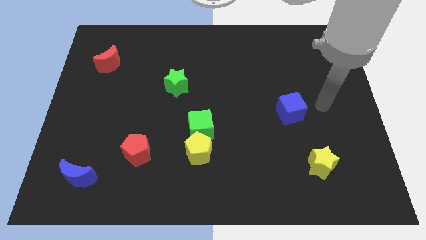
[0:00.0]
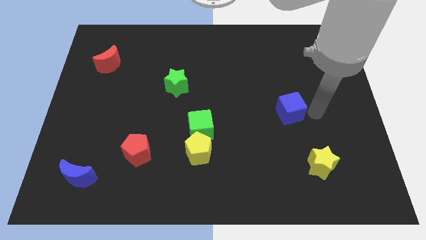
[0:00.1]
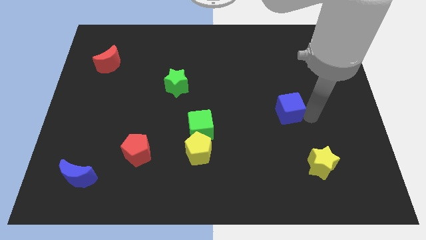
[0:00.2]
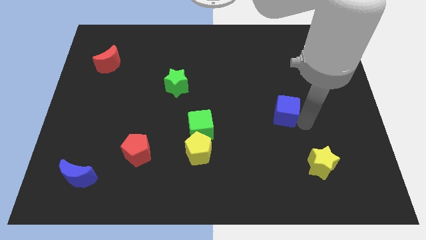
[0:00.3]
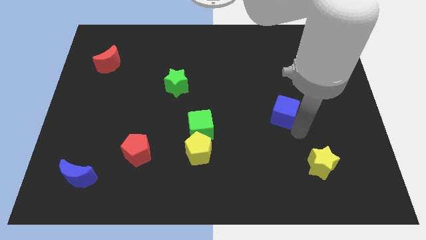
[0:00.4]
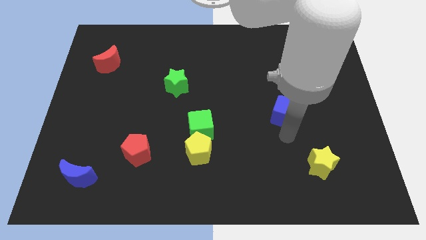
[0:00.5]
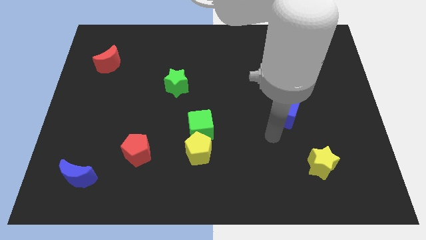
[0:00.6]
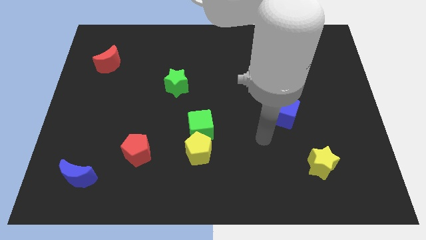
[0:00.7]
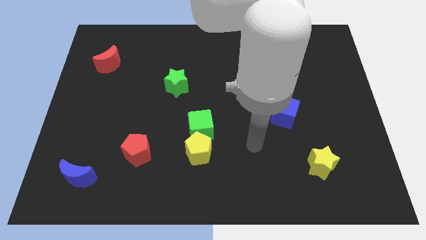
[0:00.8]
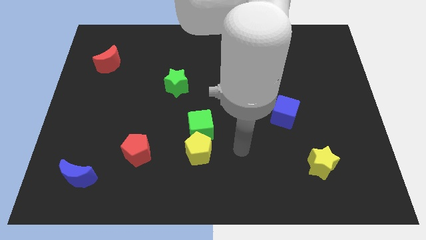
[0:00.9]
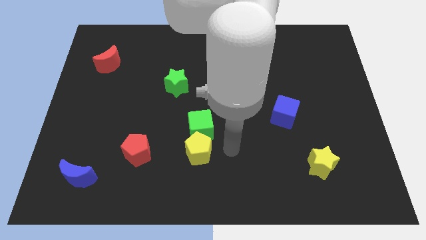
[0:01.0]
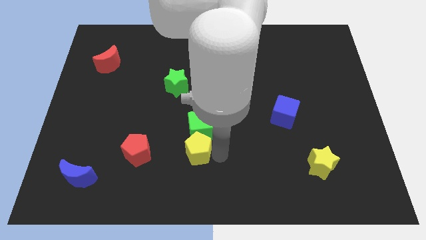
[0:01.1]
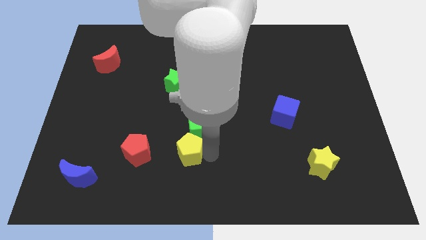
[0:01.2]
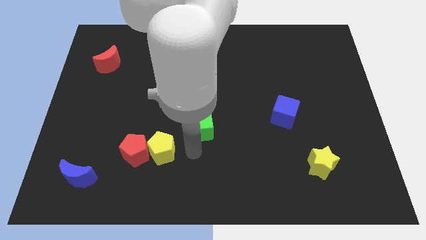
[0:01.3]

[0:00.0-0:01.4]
separate the green cube from the yellow pentagon

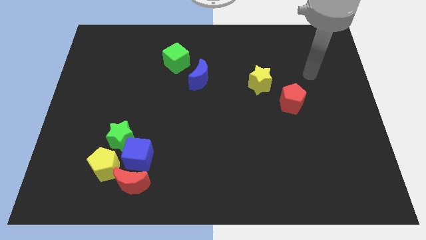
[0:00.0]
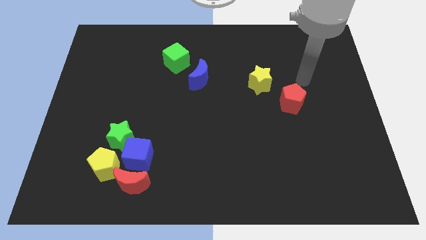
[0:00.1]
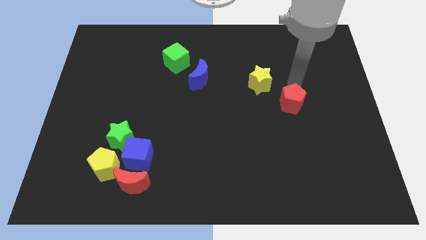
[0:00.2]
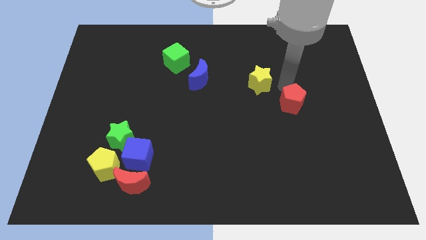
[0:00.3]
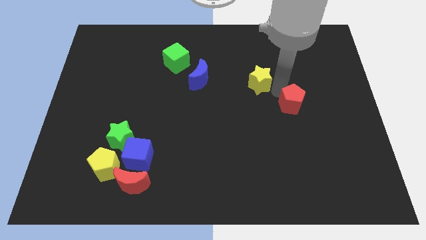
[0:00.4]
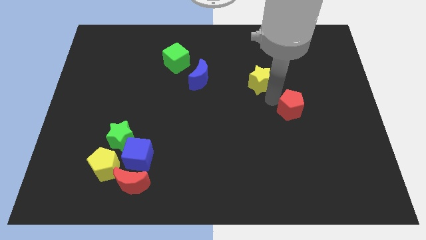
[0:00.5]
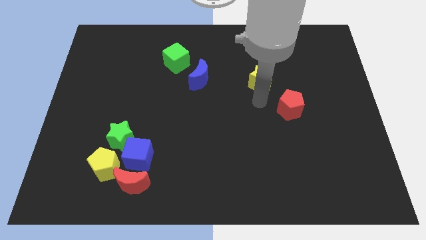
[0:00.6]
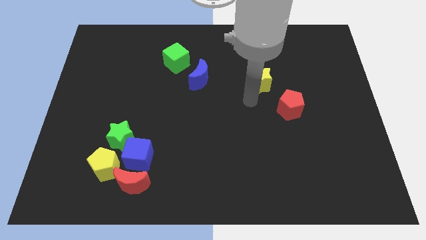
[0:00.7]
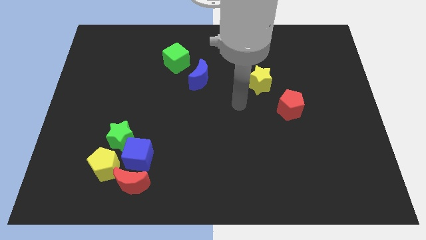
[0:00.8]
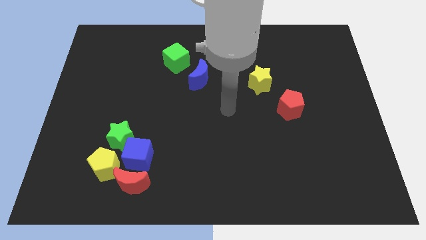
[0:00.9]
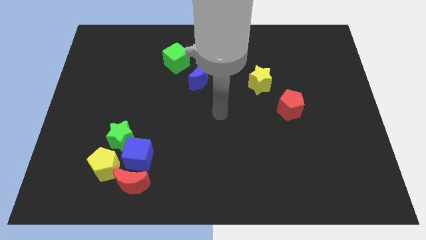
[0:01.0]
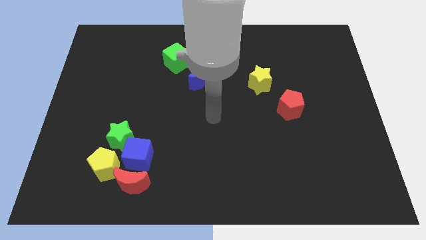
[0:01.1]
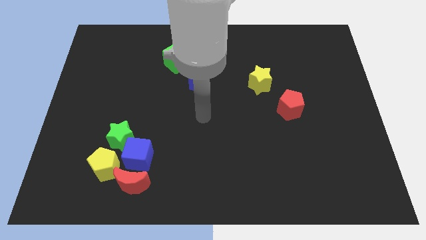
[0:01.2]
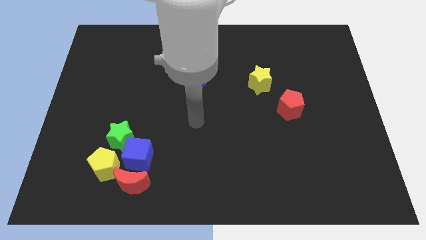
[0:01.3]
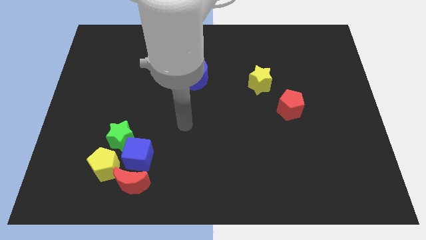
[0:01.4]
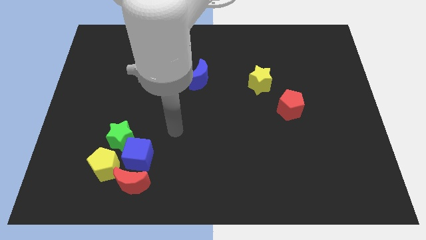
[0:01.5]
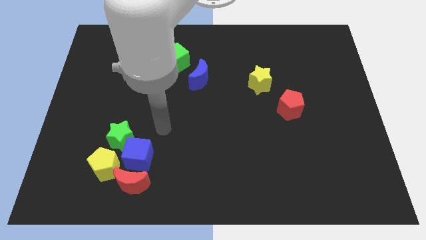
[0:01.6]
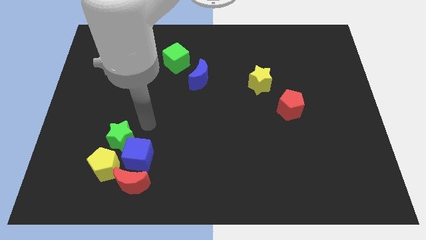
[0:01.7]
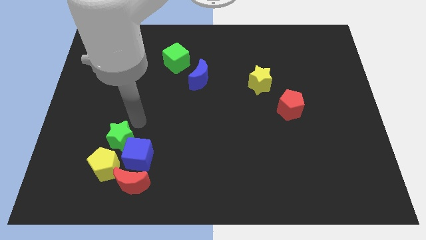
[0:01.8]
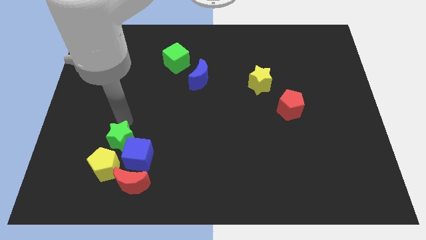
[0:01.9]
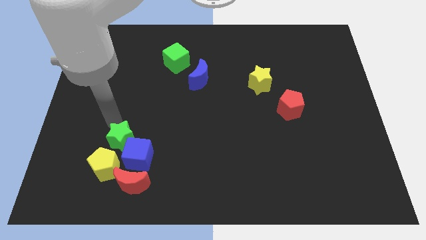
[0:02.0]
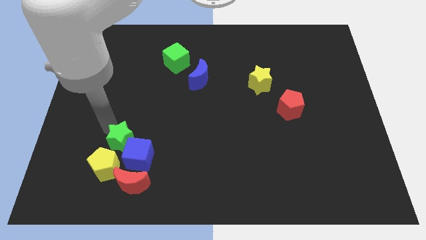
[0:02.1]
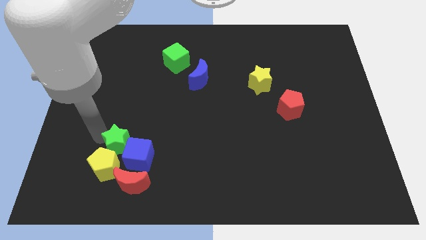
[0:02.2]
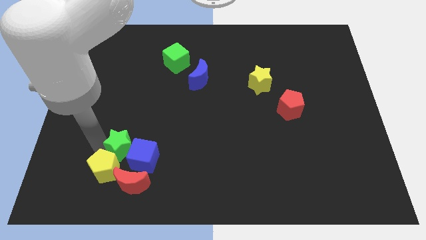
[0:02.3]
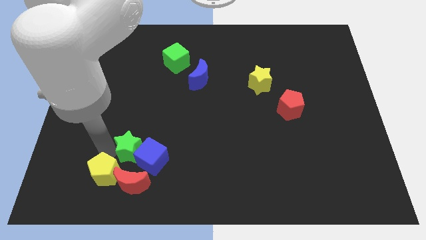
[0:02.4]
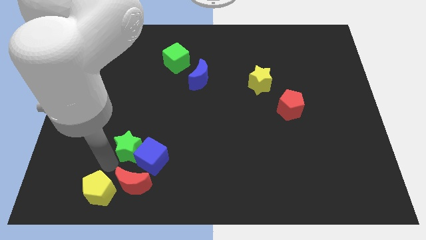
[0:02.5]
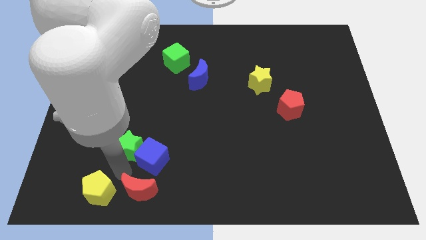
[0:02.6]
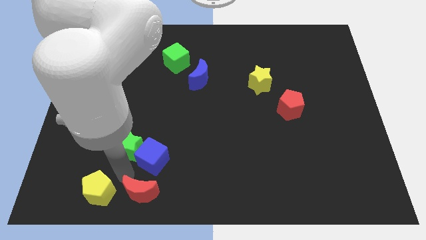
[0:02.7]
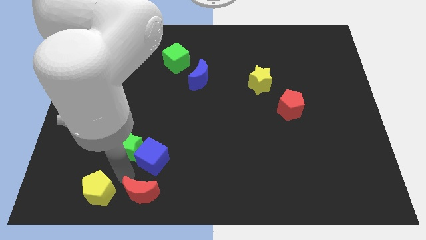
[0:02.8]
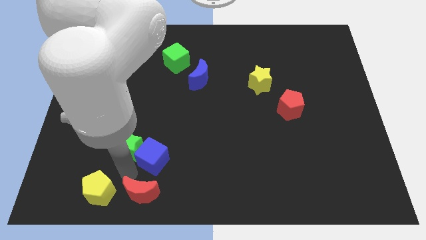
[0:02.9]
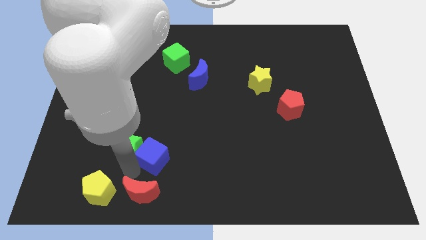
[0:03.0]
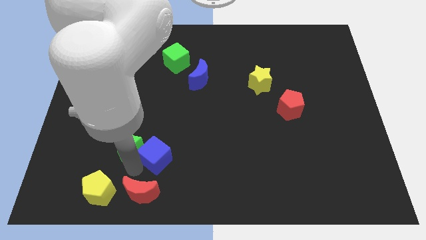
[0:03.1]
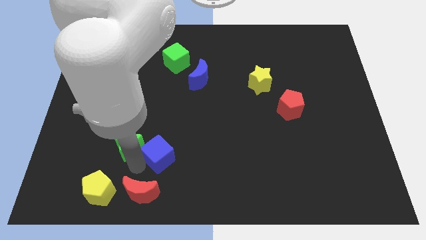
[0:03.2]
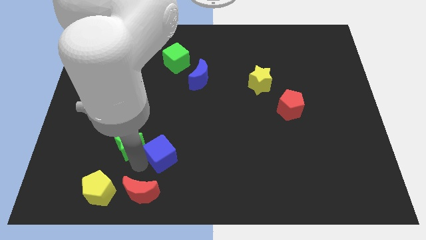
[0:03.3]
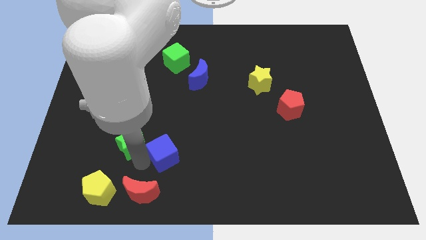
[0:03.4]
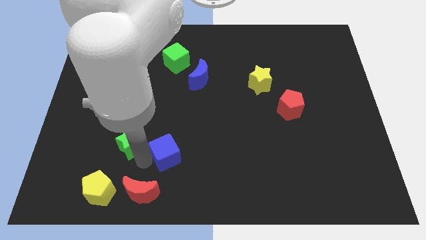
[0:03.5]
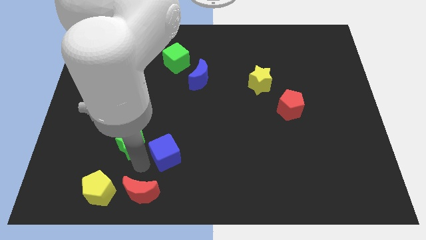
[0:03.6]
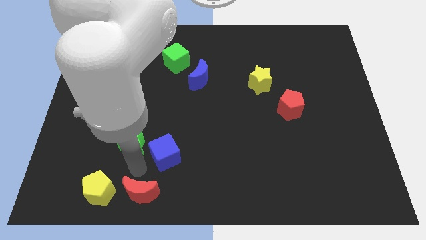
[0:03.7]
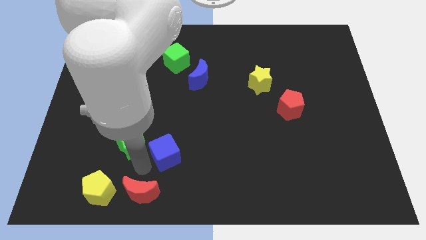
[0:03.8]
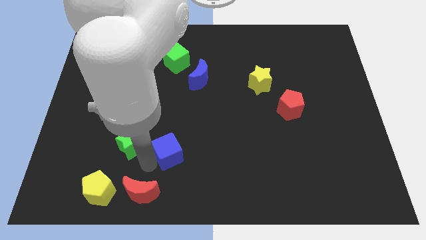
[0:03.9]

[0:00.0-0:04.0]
separate the blue cube from the green star, red moon, and yellow pentagon

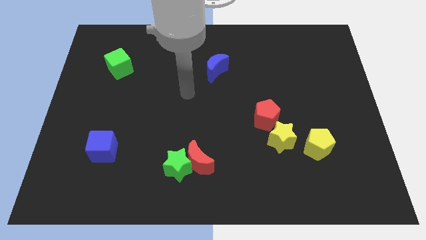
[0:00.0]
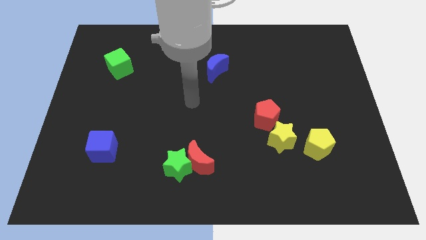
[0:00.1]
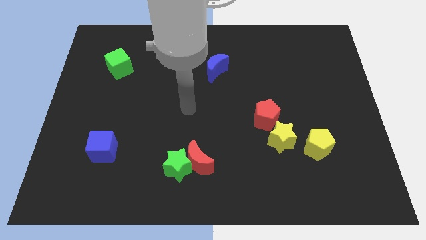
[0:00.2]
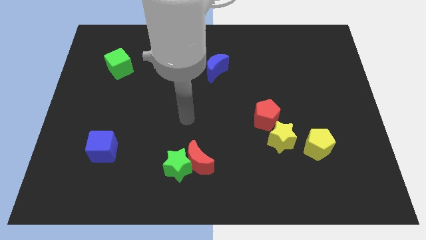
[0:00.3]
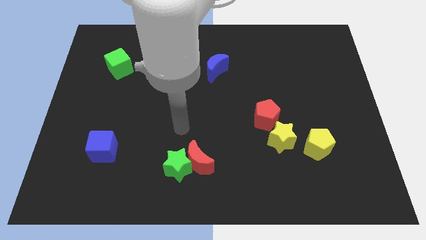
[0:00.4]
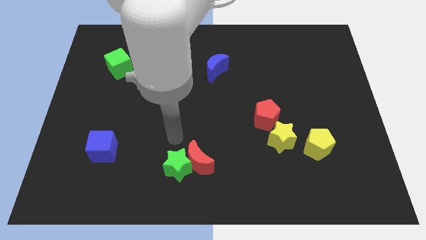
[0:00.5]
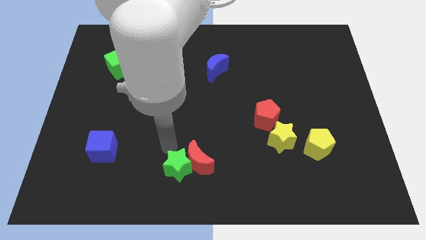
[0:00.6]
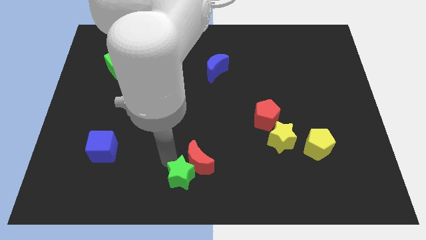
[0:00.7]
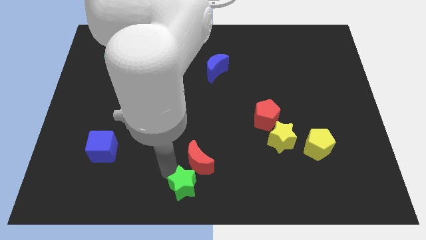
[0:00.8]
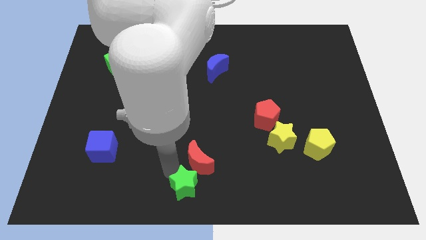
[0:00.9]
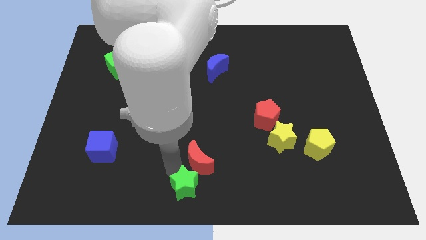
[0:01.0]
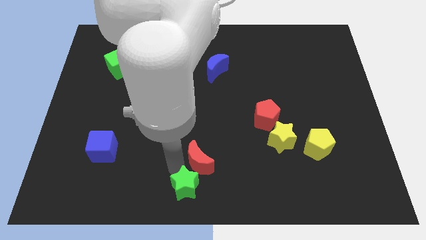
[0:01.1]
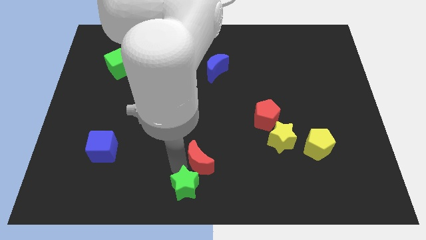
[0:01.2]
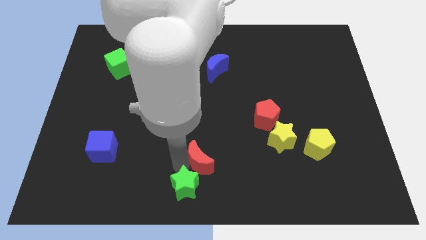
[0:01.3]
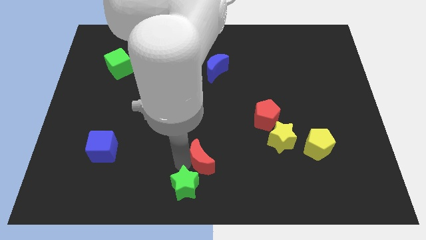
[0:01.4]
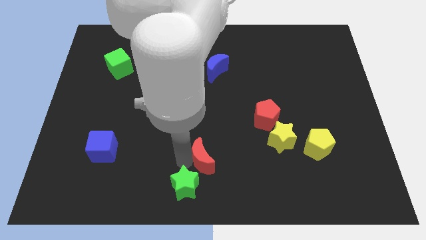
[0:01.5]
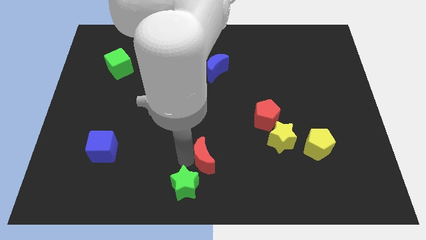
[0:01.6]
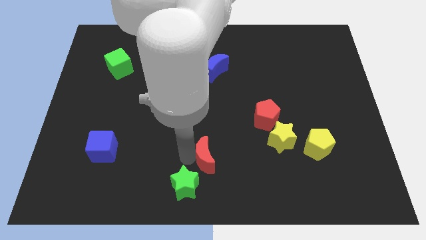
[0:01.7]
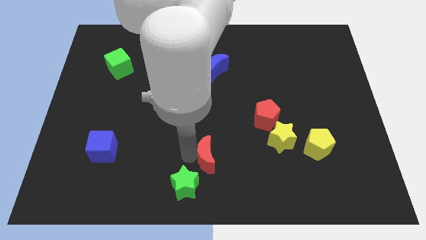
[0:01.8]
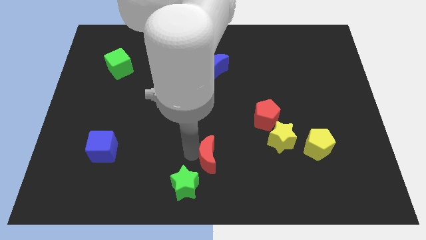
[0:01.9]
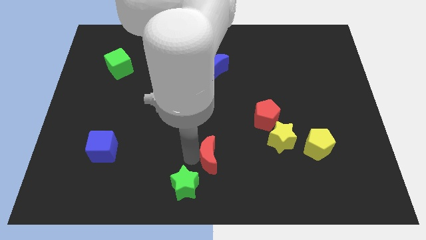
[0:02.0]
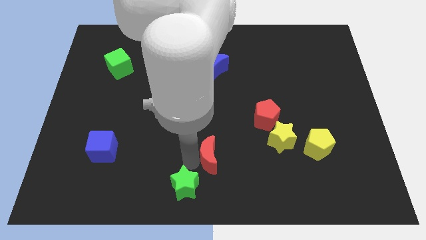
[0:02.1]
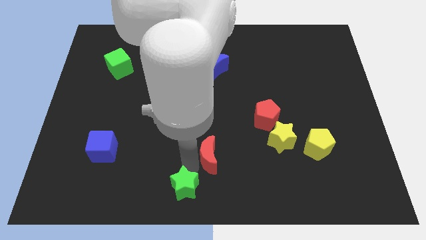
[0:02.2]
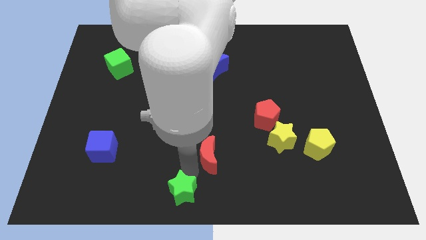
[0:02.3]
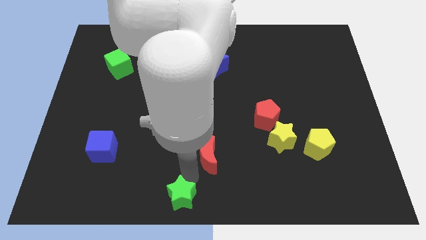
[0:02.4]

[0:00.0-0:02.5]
pull the red moon apart from the green star

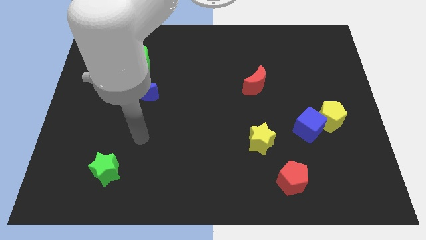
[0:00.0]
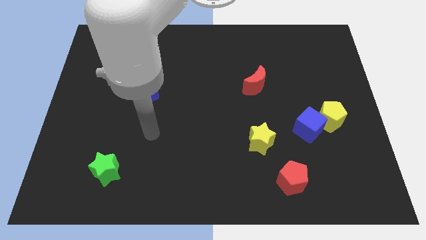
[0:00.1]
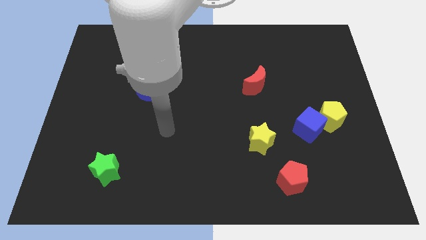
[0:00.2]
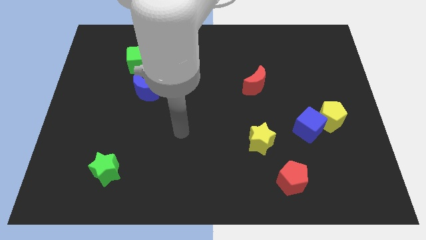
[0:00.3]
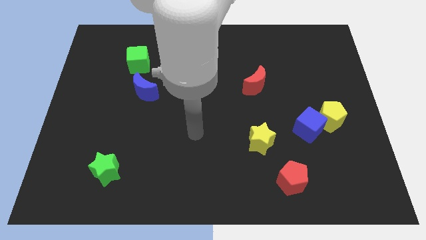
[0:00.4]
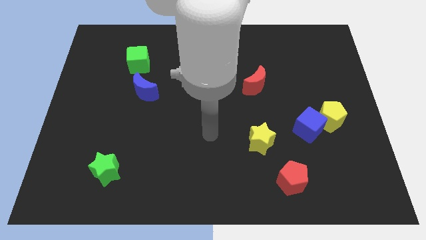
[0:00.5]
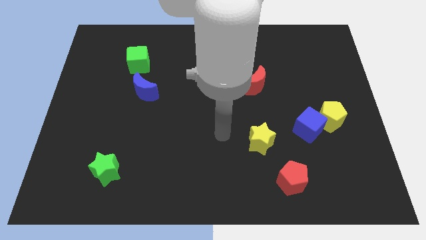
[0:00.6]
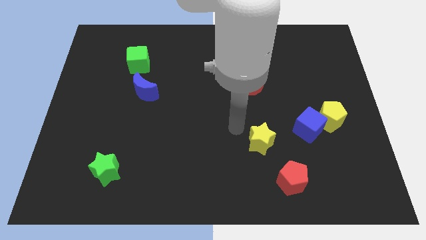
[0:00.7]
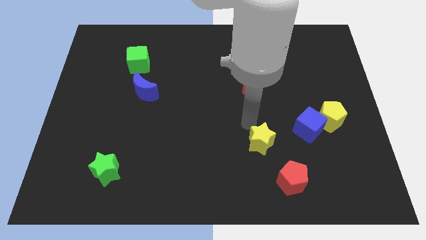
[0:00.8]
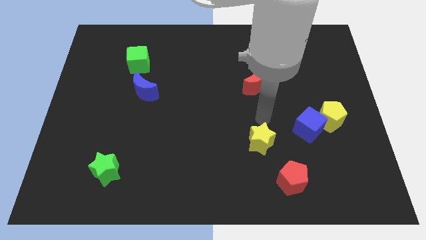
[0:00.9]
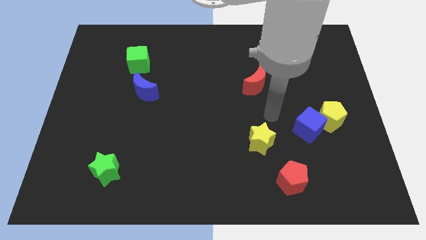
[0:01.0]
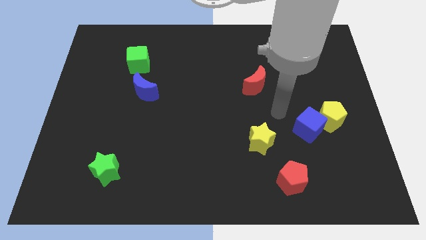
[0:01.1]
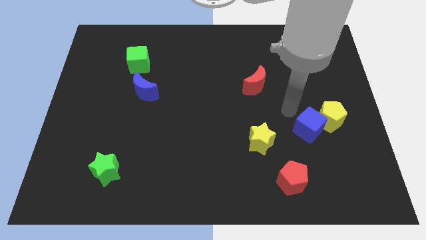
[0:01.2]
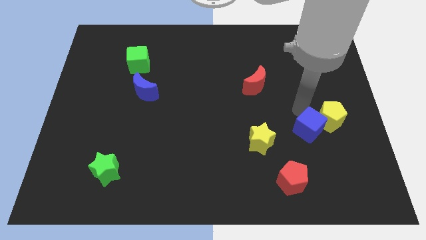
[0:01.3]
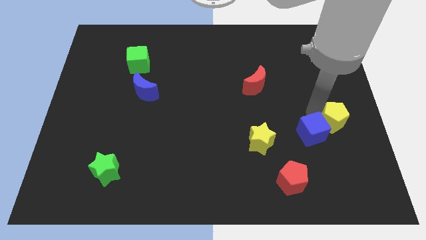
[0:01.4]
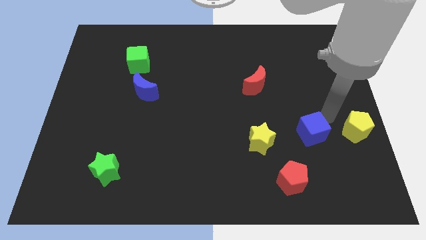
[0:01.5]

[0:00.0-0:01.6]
pull the blue cube apart from the yellow pentagon
